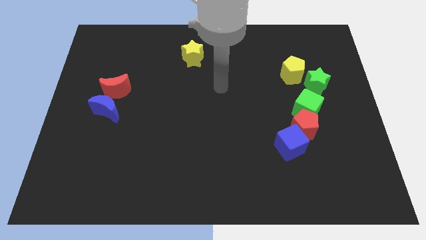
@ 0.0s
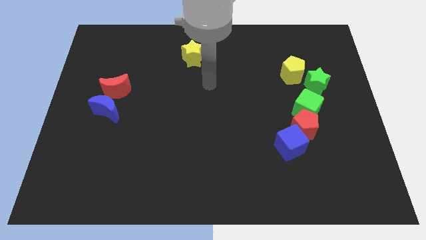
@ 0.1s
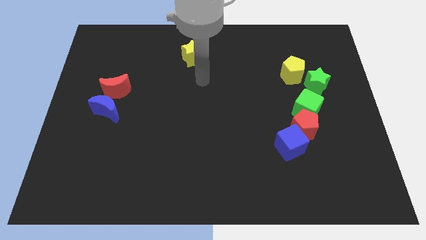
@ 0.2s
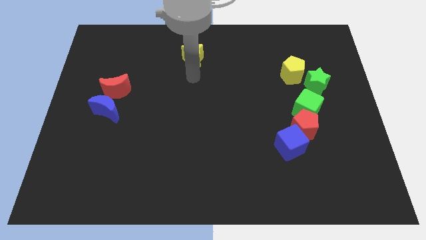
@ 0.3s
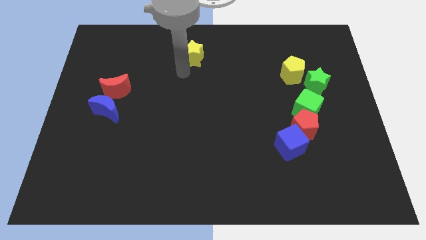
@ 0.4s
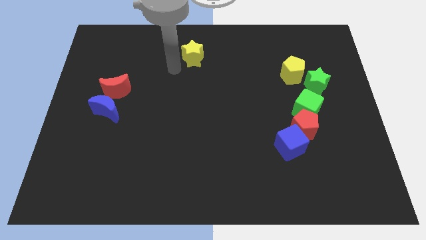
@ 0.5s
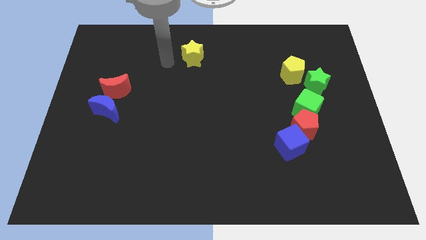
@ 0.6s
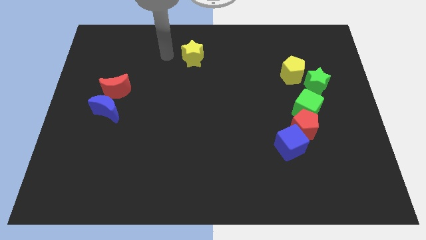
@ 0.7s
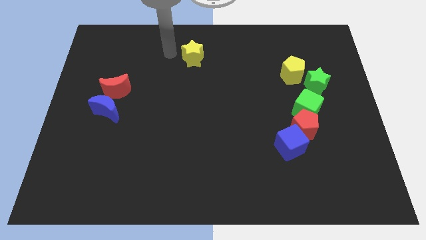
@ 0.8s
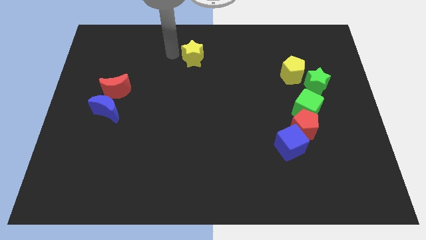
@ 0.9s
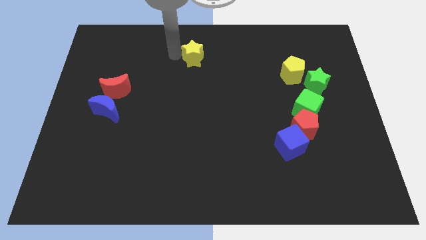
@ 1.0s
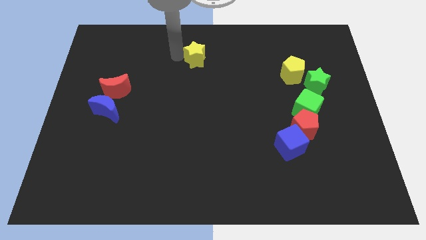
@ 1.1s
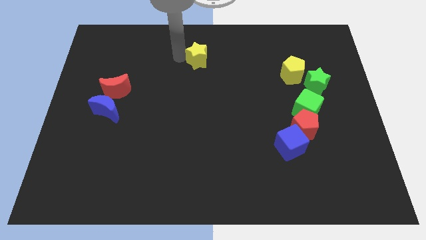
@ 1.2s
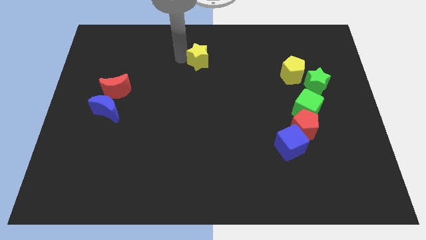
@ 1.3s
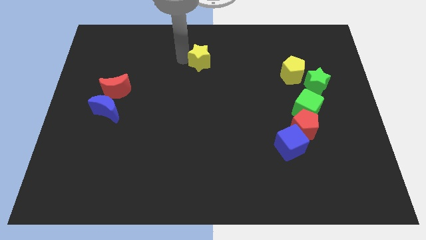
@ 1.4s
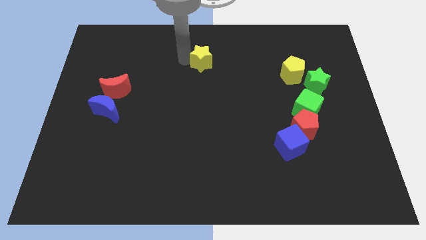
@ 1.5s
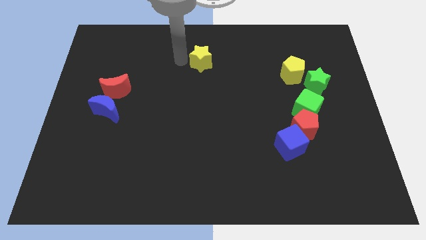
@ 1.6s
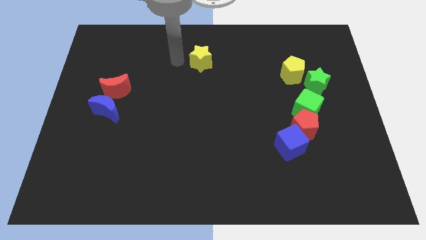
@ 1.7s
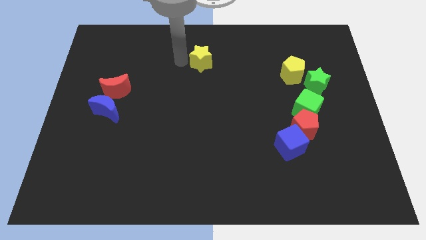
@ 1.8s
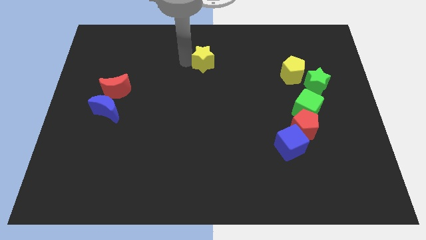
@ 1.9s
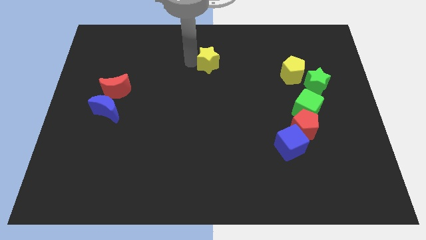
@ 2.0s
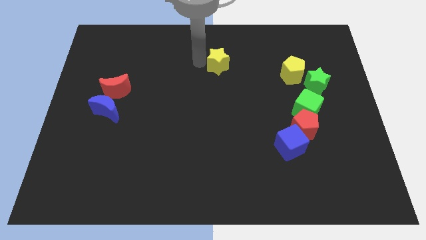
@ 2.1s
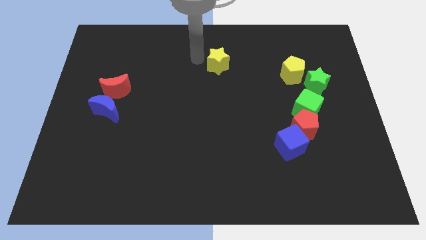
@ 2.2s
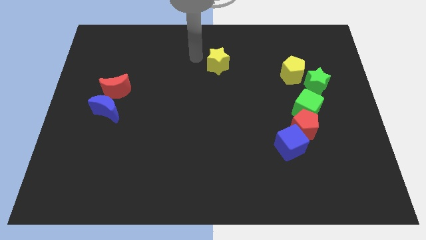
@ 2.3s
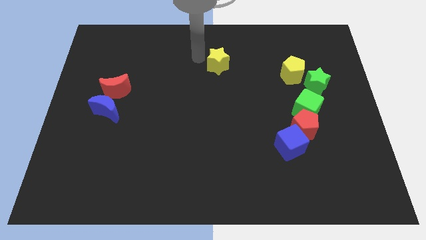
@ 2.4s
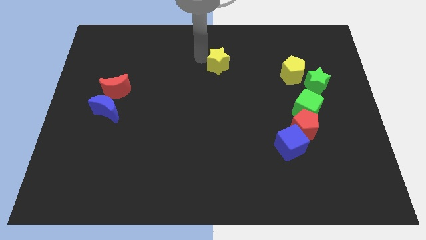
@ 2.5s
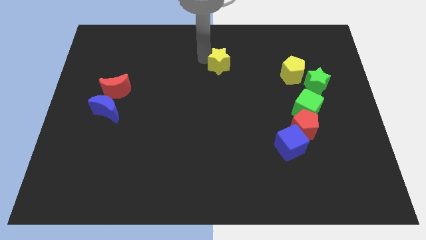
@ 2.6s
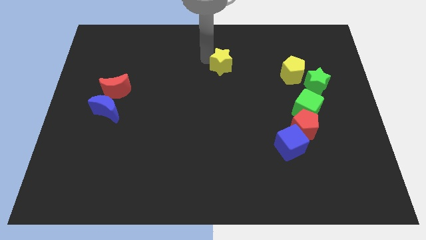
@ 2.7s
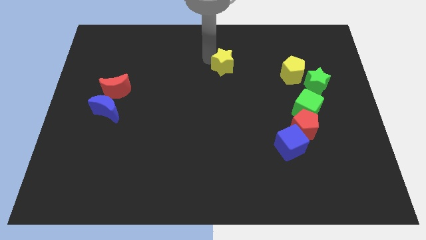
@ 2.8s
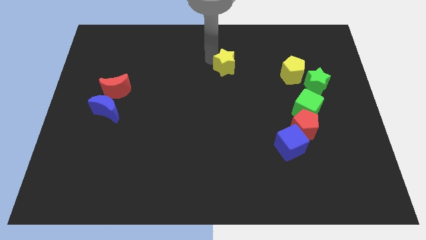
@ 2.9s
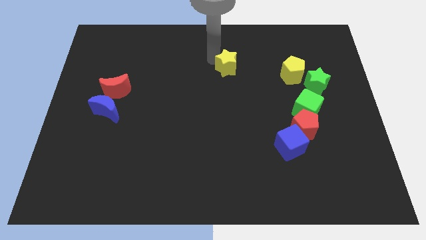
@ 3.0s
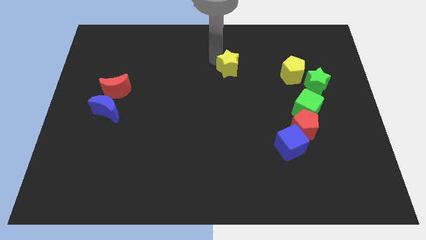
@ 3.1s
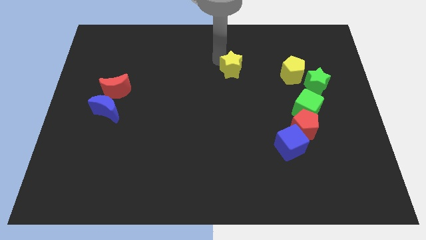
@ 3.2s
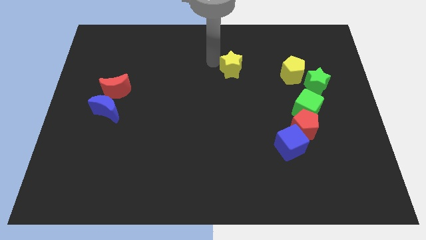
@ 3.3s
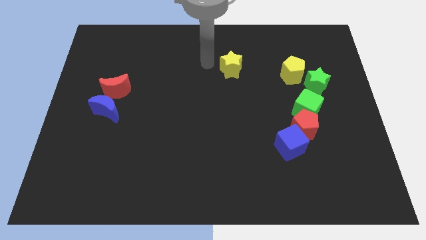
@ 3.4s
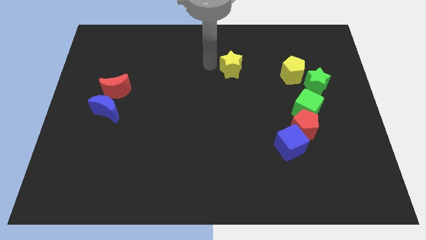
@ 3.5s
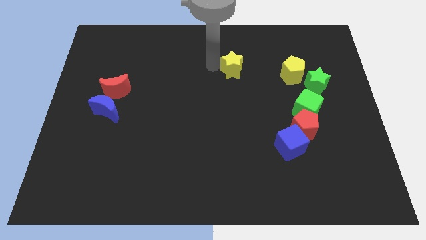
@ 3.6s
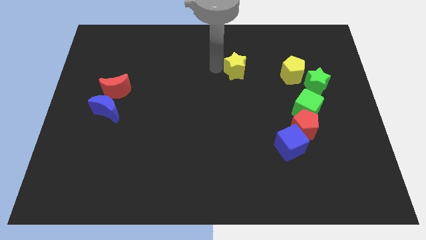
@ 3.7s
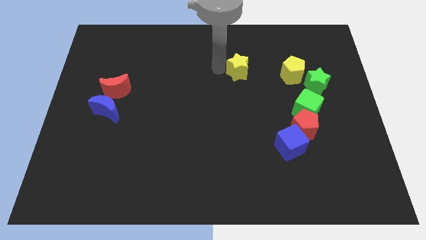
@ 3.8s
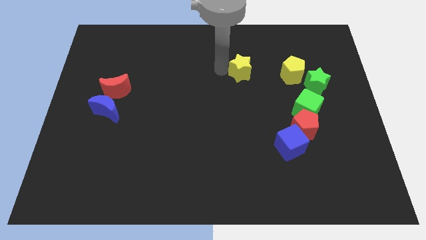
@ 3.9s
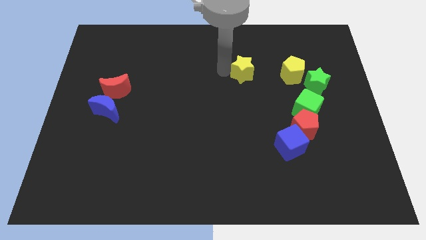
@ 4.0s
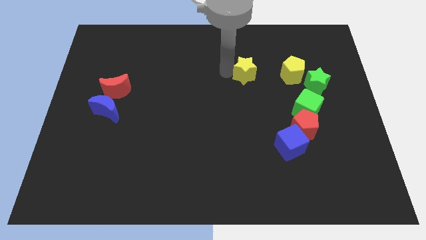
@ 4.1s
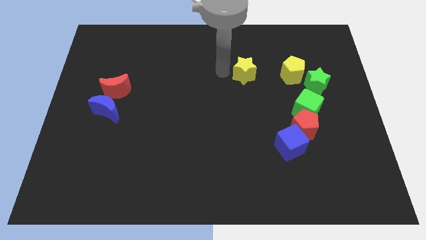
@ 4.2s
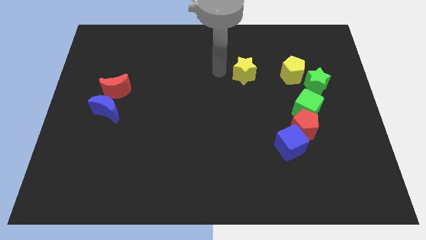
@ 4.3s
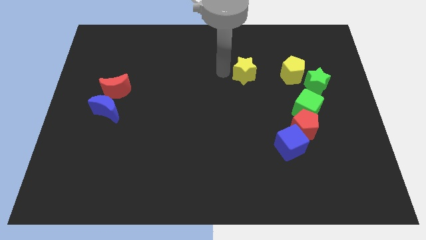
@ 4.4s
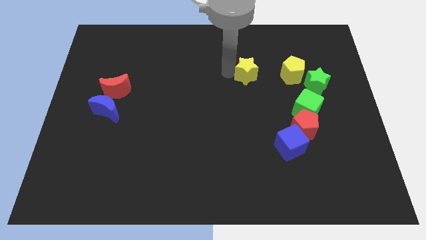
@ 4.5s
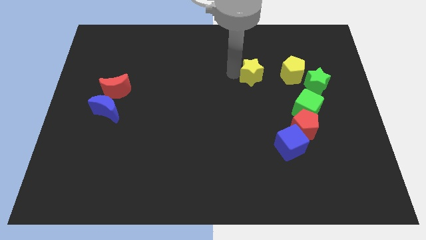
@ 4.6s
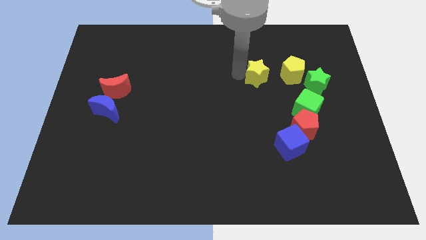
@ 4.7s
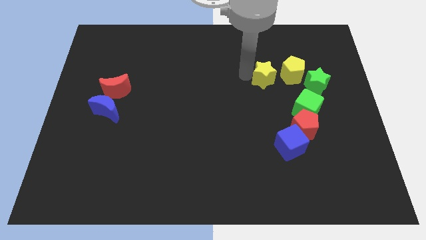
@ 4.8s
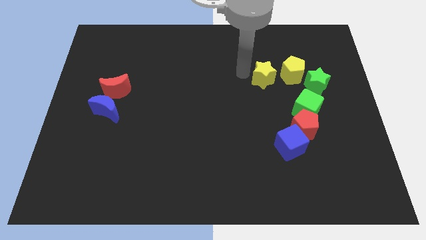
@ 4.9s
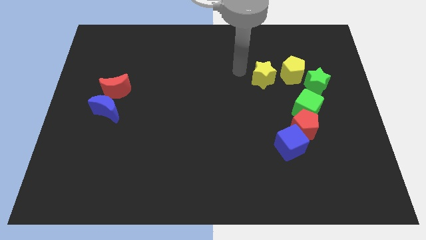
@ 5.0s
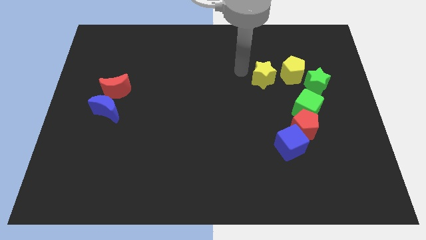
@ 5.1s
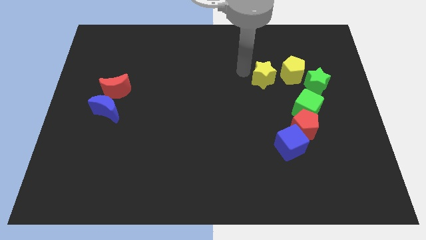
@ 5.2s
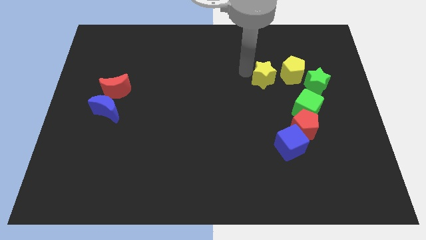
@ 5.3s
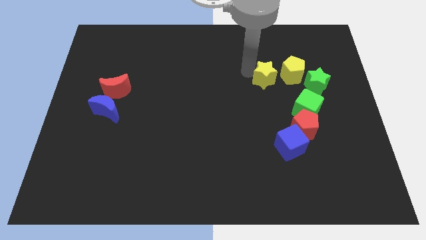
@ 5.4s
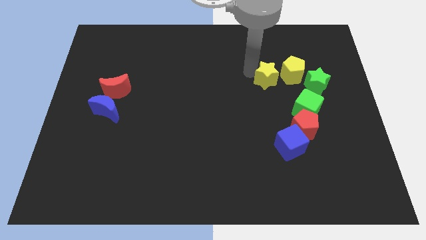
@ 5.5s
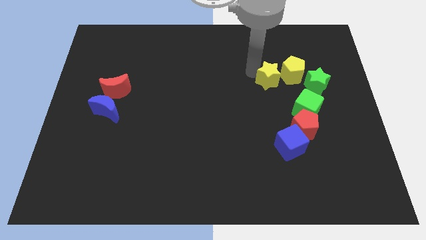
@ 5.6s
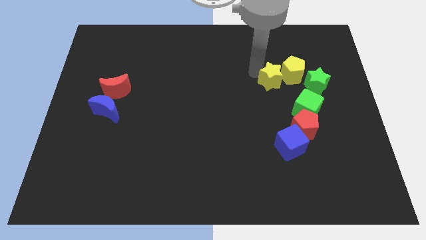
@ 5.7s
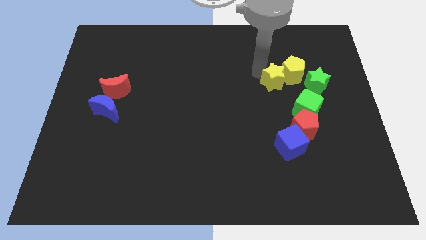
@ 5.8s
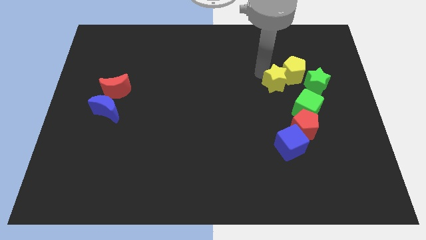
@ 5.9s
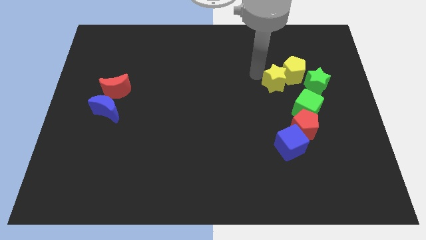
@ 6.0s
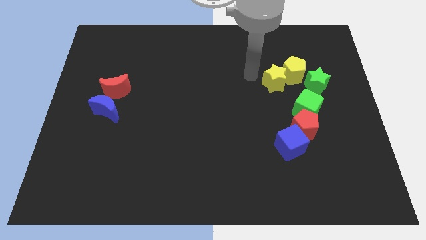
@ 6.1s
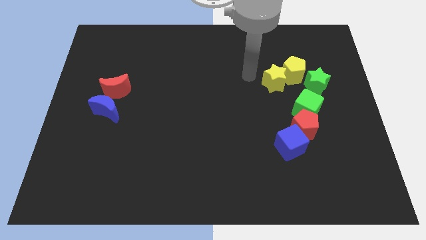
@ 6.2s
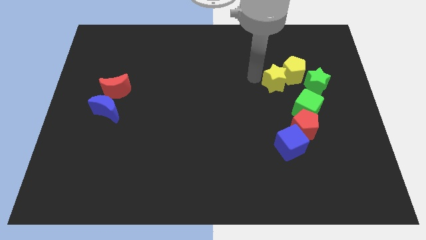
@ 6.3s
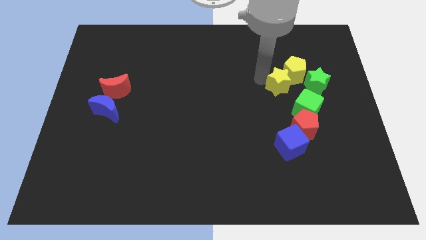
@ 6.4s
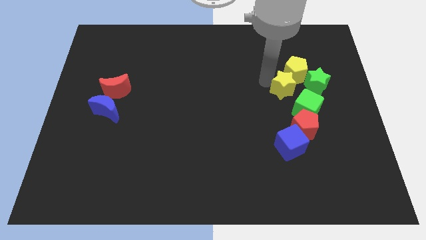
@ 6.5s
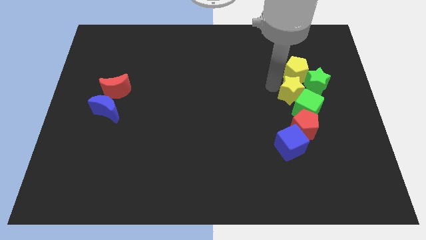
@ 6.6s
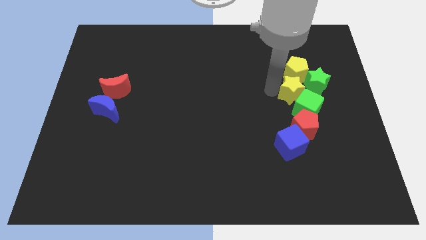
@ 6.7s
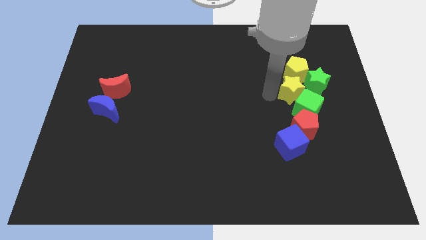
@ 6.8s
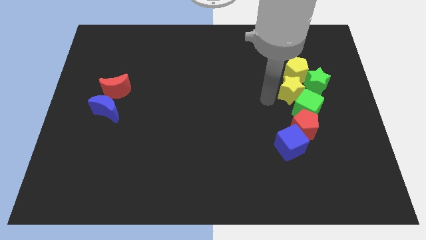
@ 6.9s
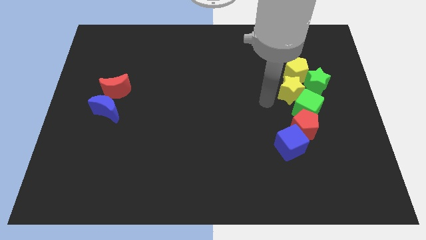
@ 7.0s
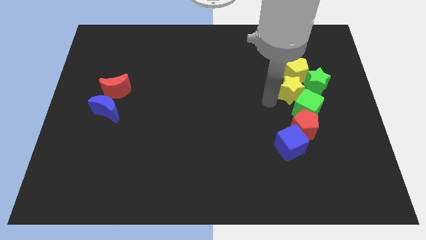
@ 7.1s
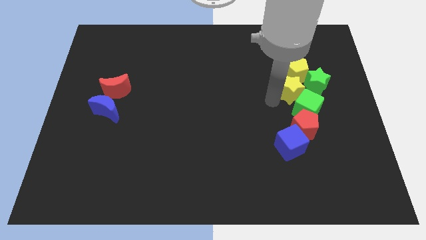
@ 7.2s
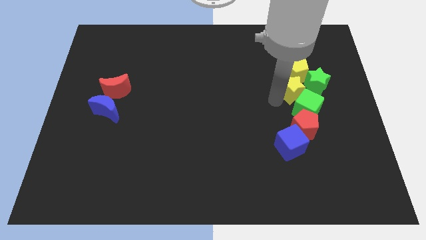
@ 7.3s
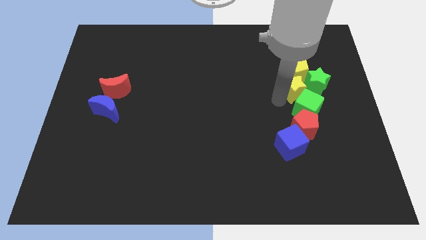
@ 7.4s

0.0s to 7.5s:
put the yellow star close to the green star
